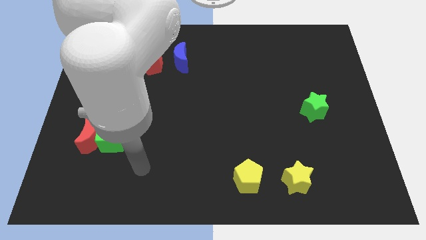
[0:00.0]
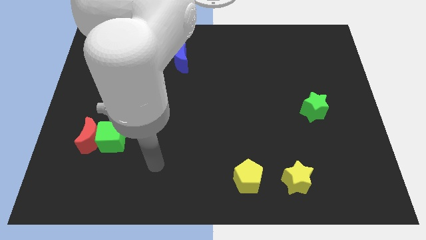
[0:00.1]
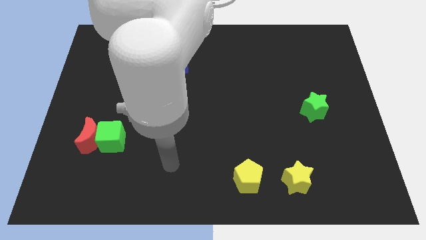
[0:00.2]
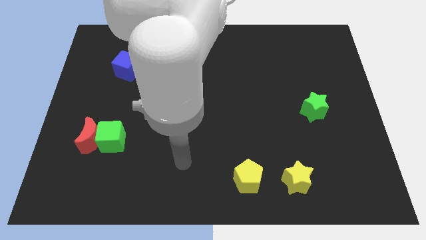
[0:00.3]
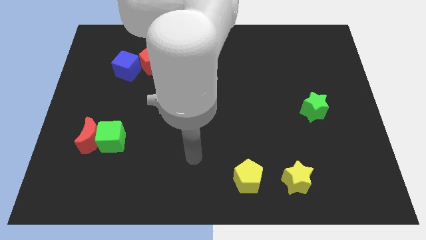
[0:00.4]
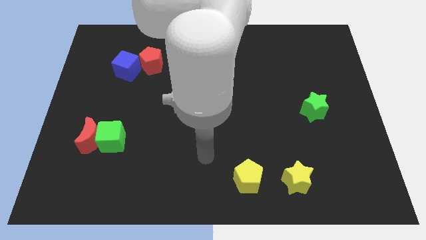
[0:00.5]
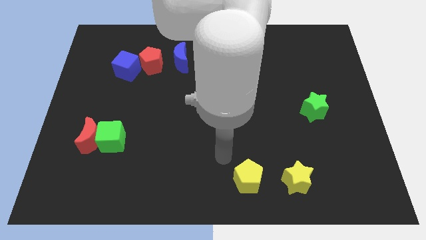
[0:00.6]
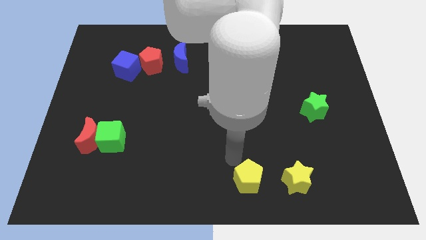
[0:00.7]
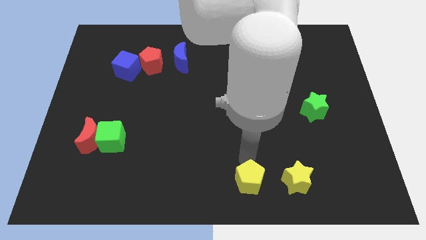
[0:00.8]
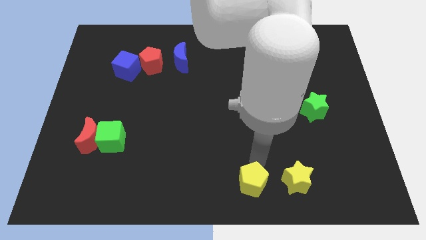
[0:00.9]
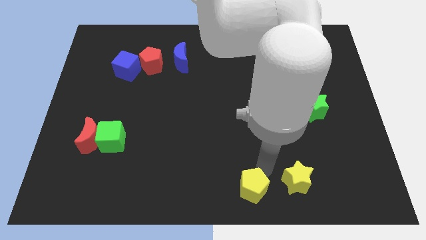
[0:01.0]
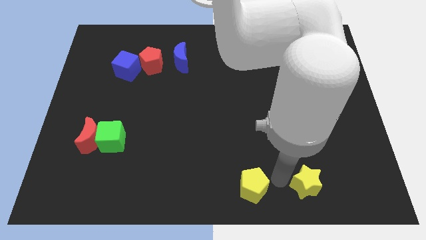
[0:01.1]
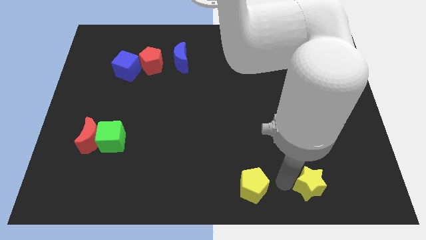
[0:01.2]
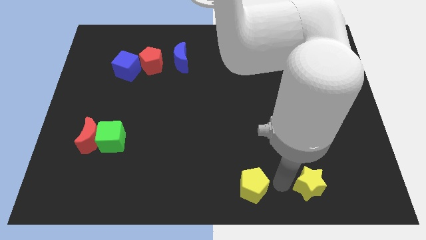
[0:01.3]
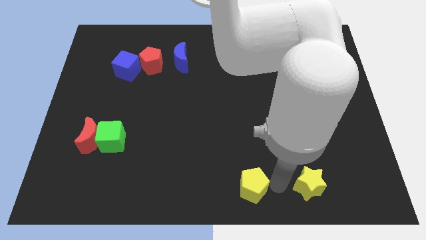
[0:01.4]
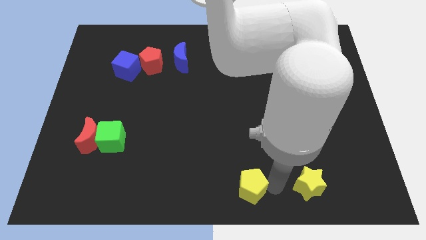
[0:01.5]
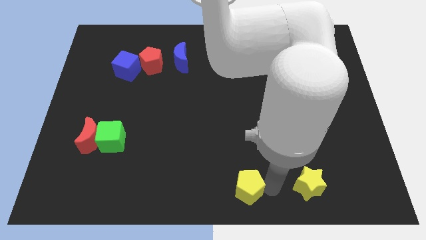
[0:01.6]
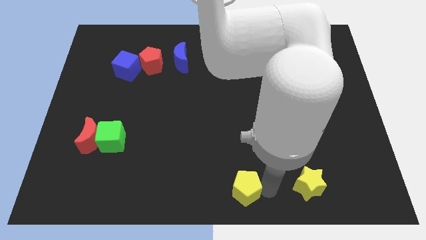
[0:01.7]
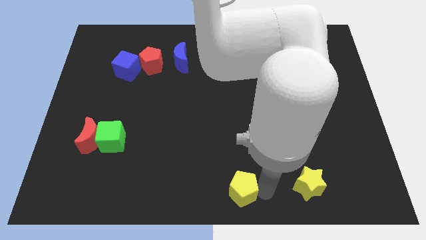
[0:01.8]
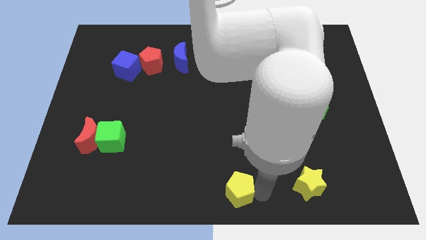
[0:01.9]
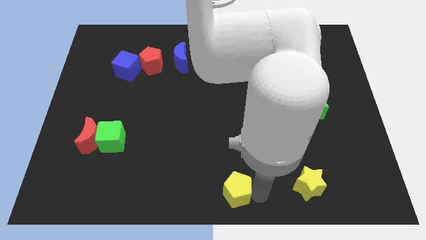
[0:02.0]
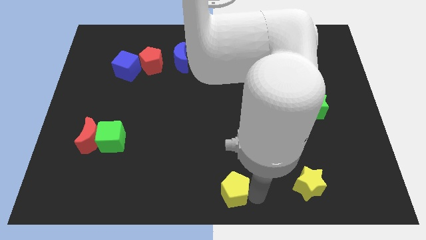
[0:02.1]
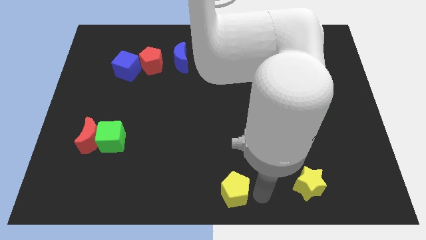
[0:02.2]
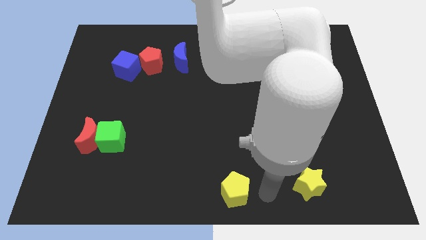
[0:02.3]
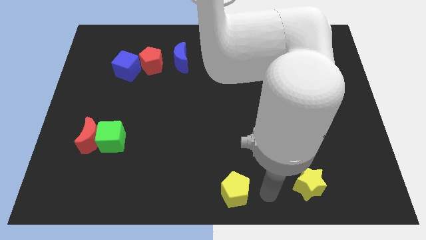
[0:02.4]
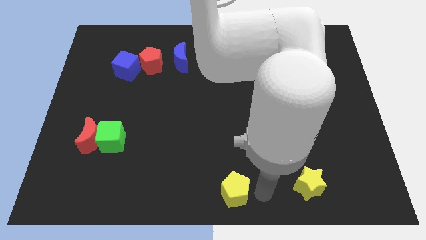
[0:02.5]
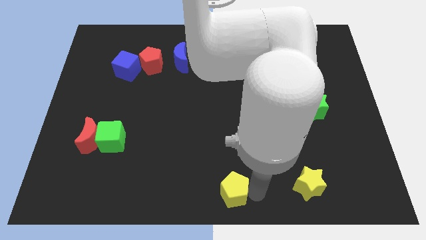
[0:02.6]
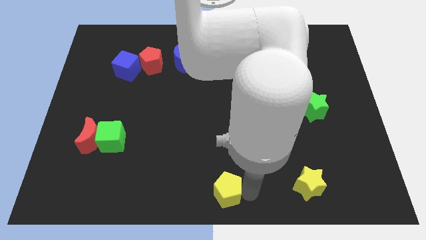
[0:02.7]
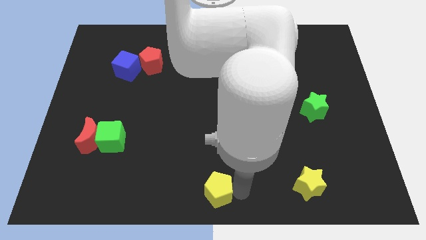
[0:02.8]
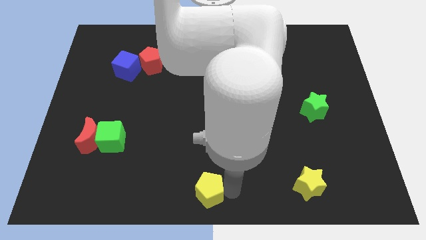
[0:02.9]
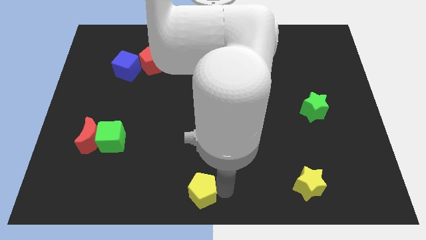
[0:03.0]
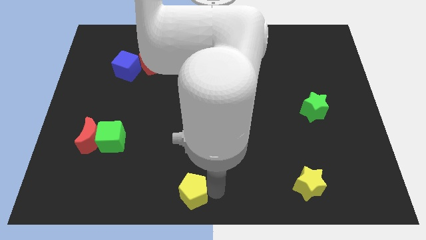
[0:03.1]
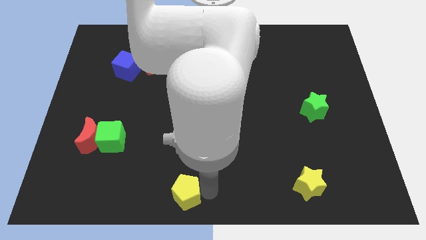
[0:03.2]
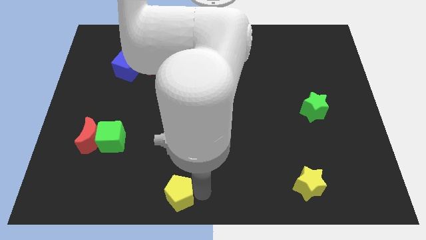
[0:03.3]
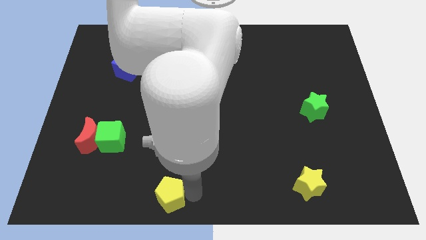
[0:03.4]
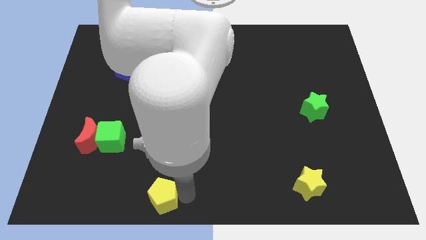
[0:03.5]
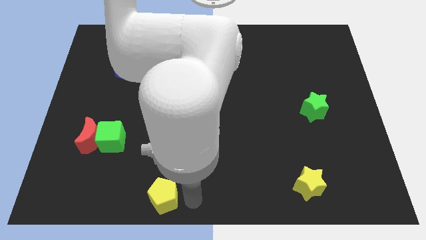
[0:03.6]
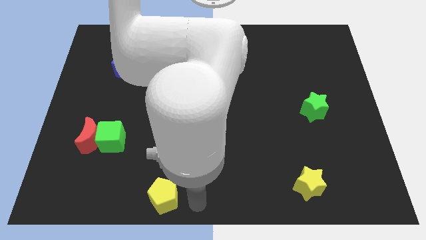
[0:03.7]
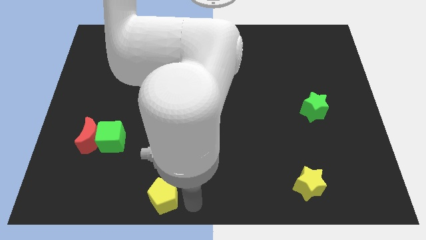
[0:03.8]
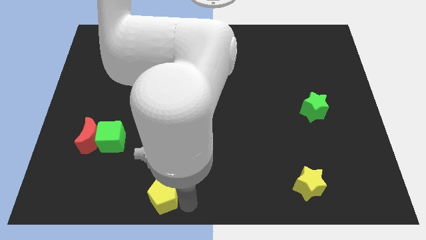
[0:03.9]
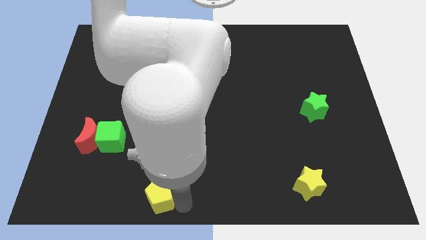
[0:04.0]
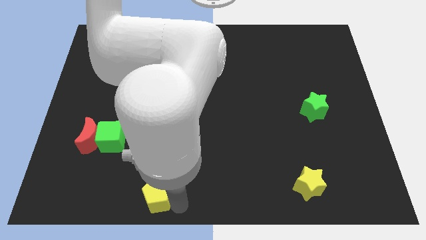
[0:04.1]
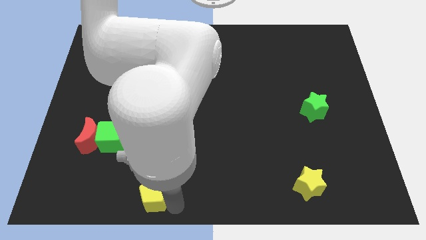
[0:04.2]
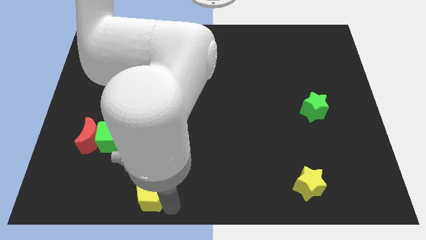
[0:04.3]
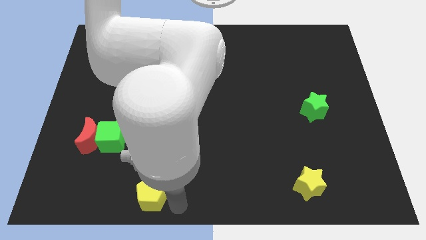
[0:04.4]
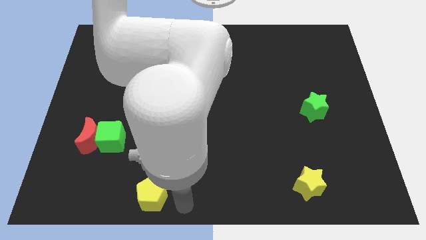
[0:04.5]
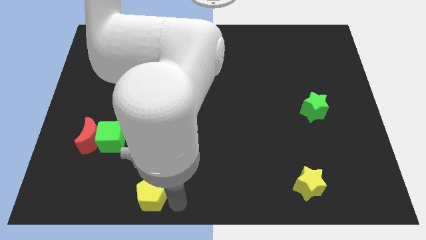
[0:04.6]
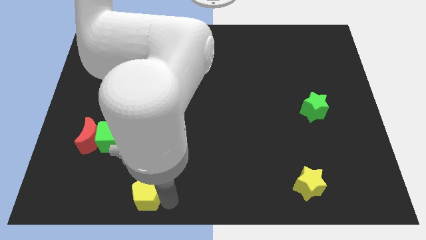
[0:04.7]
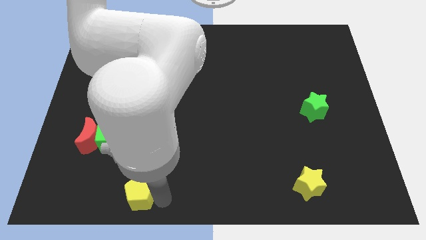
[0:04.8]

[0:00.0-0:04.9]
slide the yellow pentagon left

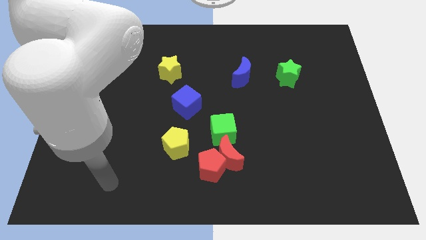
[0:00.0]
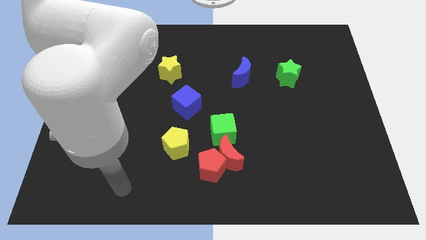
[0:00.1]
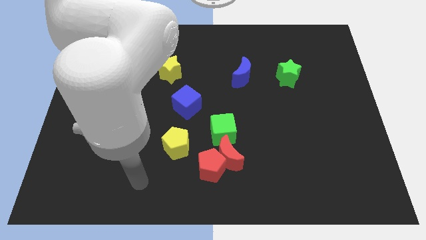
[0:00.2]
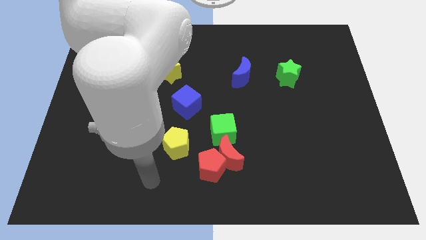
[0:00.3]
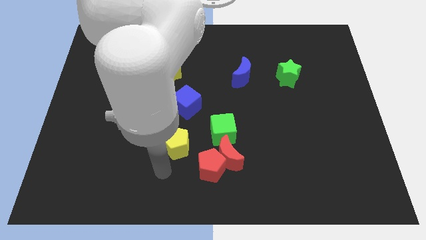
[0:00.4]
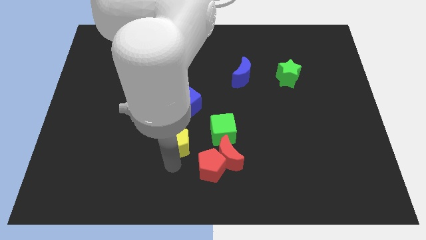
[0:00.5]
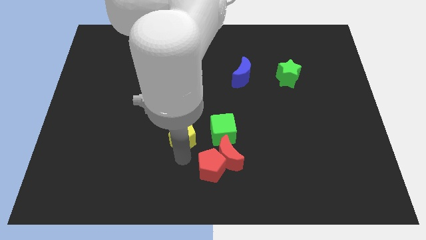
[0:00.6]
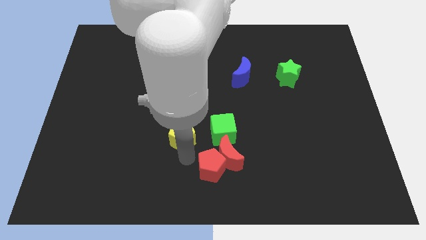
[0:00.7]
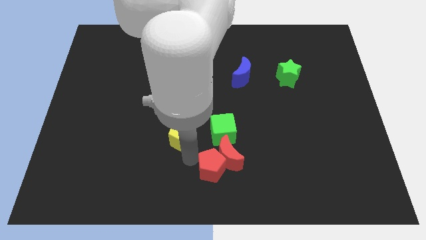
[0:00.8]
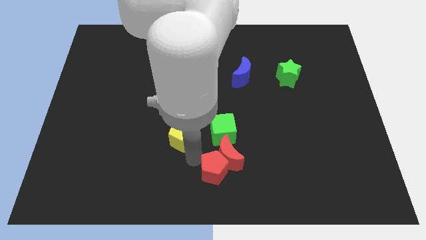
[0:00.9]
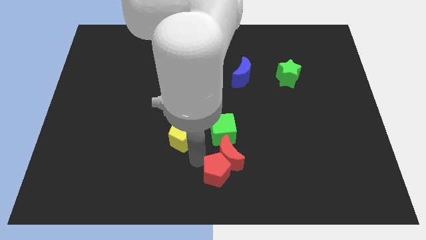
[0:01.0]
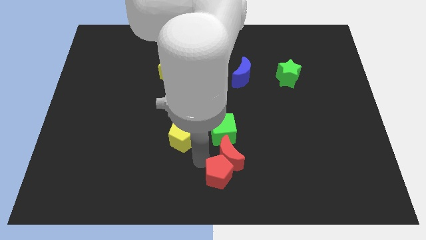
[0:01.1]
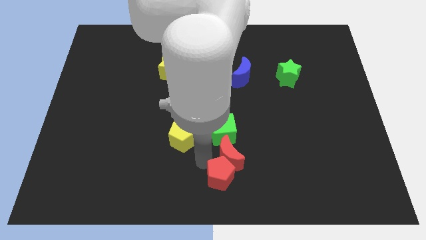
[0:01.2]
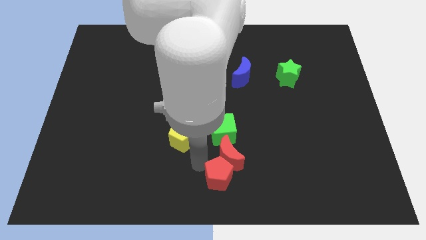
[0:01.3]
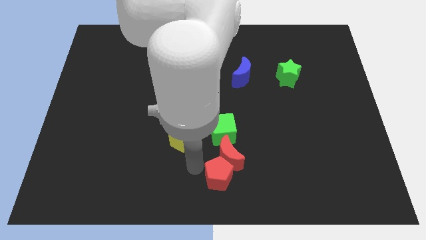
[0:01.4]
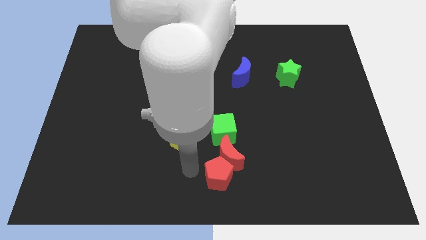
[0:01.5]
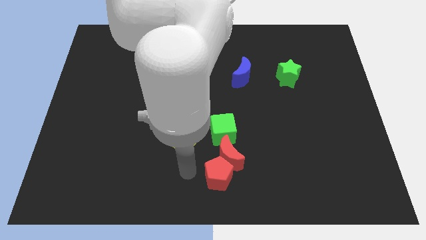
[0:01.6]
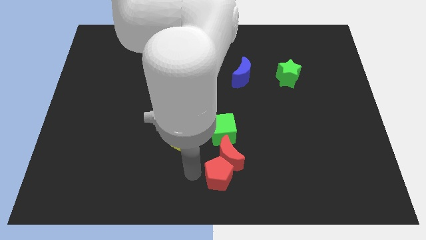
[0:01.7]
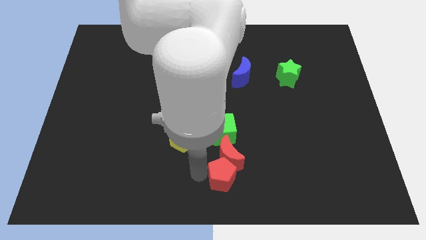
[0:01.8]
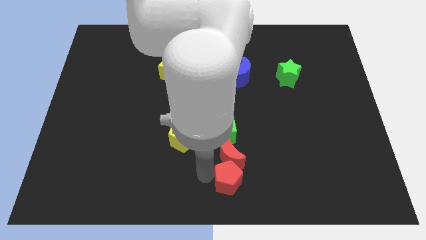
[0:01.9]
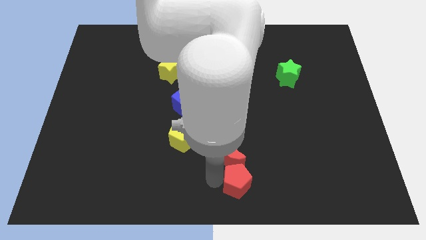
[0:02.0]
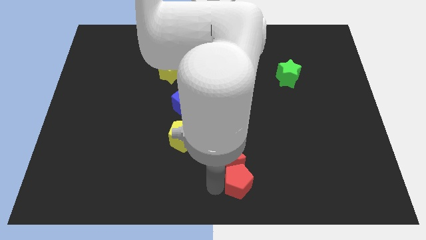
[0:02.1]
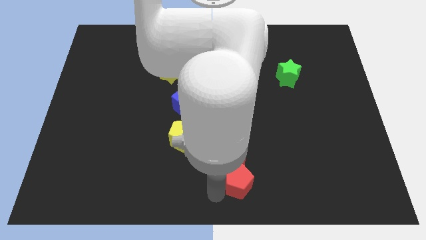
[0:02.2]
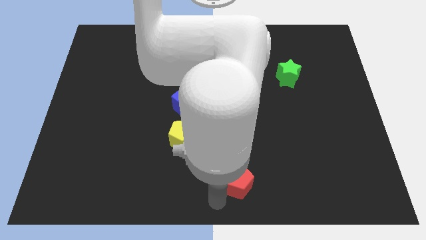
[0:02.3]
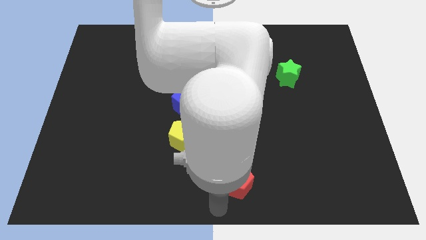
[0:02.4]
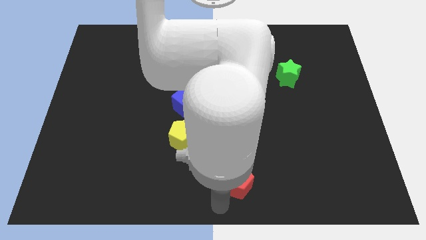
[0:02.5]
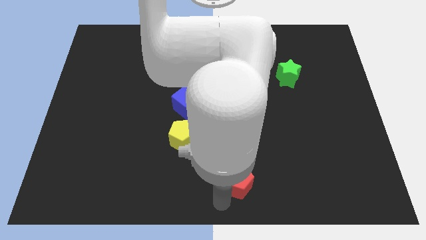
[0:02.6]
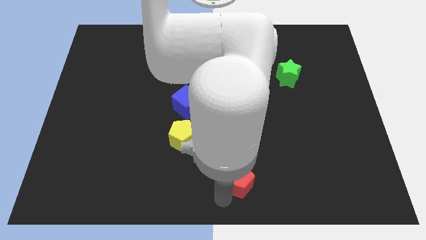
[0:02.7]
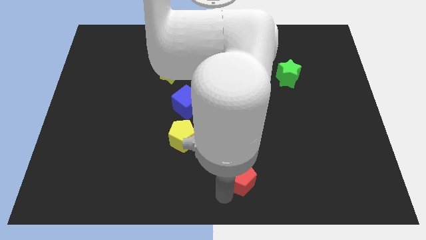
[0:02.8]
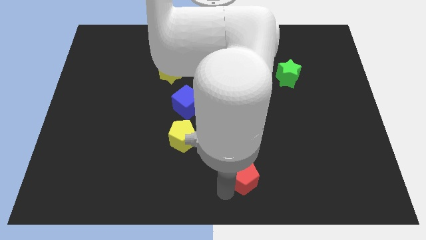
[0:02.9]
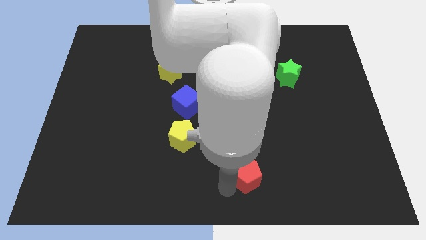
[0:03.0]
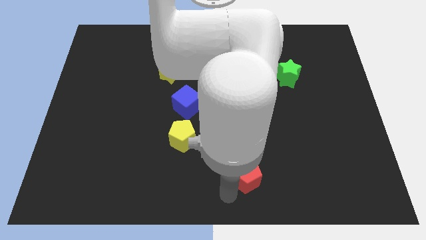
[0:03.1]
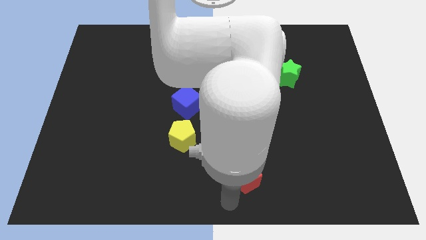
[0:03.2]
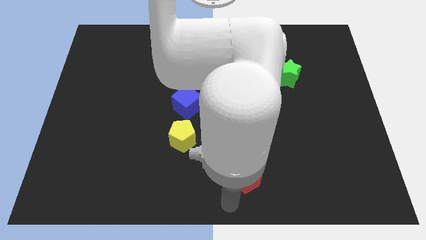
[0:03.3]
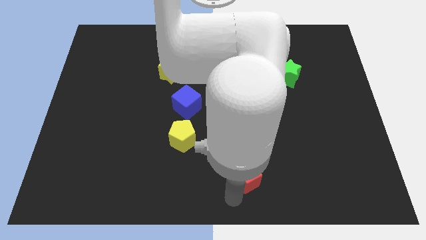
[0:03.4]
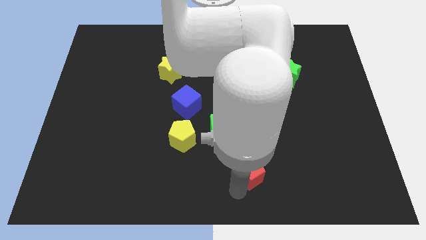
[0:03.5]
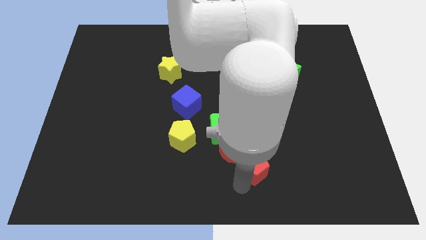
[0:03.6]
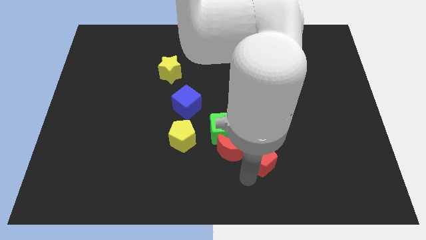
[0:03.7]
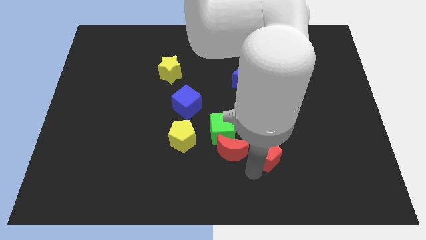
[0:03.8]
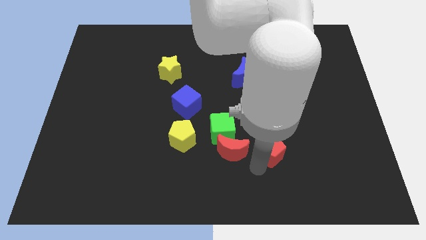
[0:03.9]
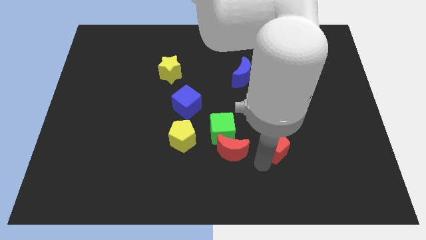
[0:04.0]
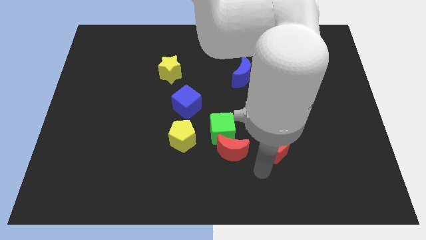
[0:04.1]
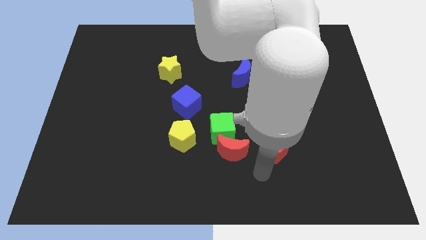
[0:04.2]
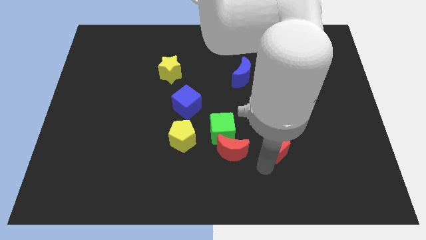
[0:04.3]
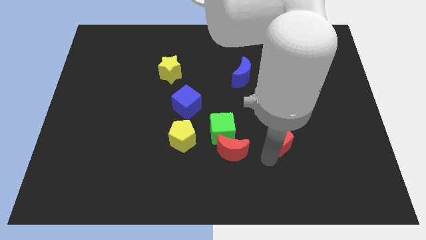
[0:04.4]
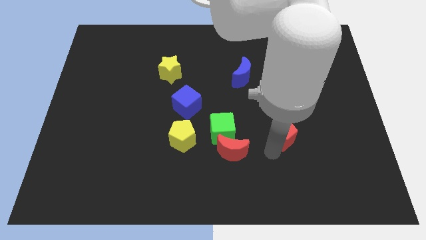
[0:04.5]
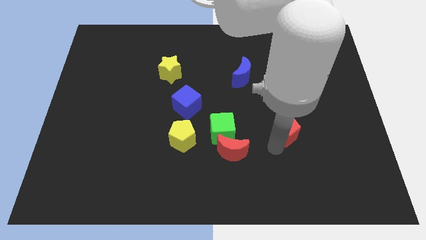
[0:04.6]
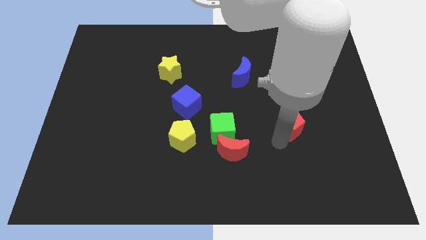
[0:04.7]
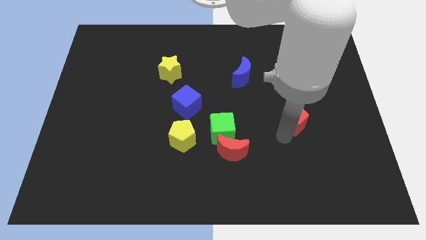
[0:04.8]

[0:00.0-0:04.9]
slide the red pentagon upwards and then right
